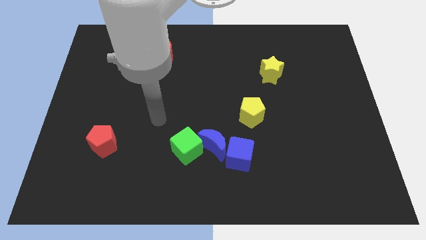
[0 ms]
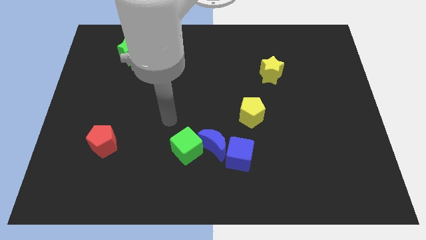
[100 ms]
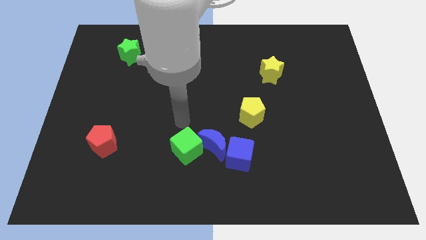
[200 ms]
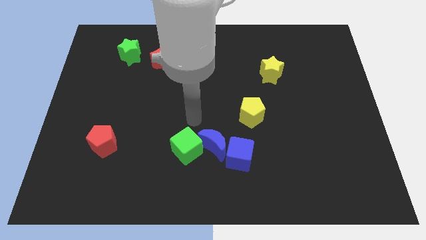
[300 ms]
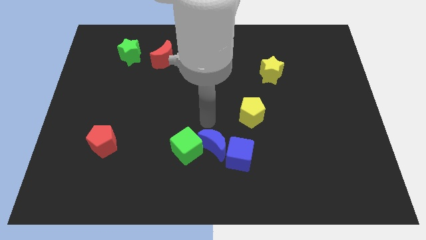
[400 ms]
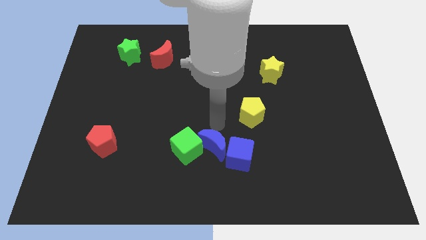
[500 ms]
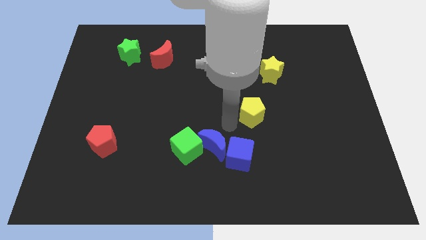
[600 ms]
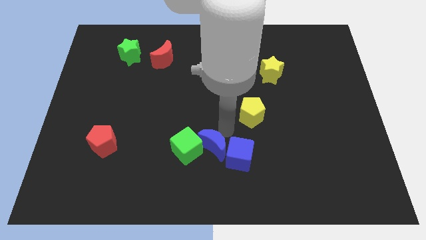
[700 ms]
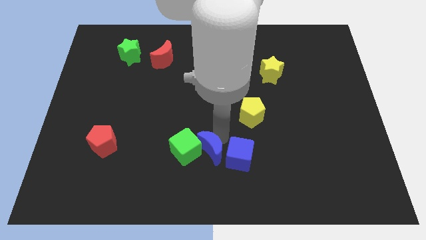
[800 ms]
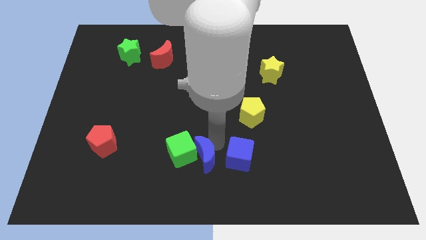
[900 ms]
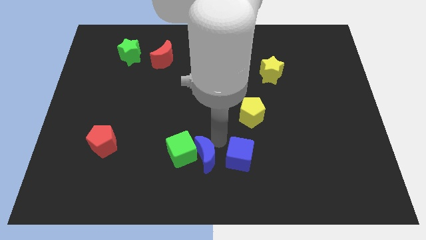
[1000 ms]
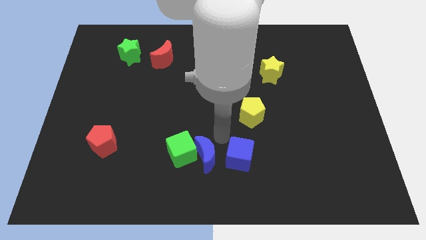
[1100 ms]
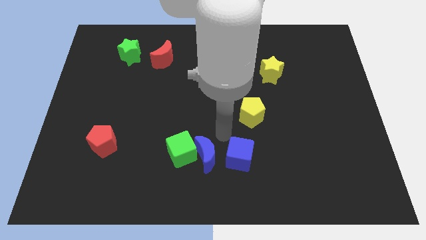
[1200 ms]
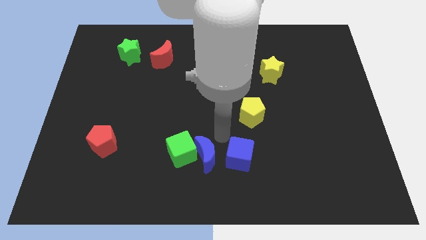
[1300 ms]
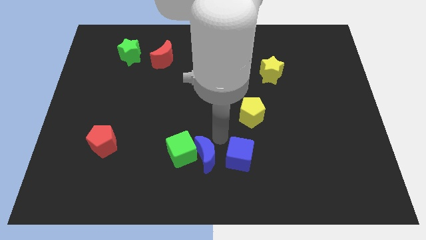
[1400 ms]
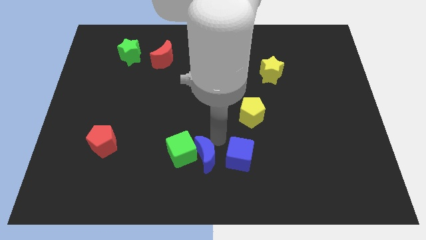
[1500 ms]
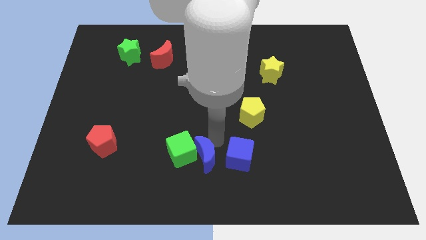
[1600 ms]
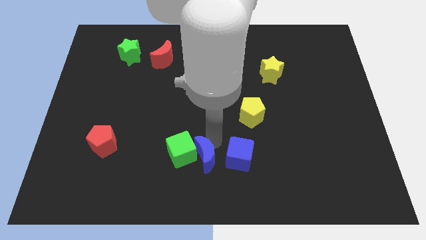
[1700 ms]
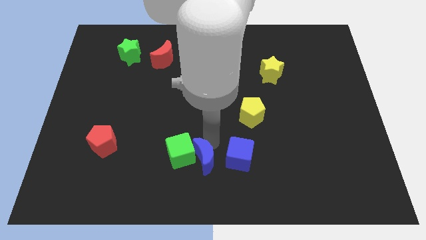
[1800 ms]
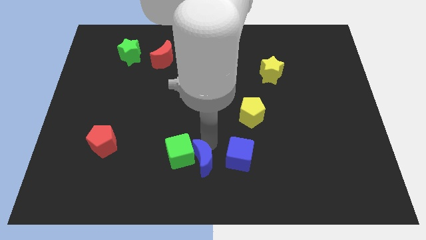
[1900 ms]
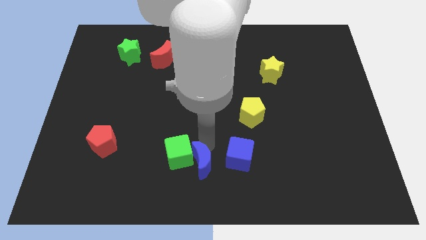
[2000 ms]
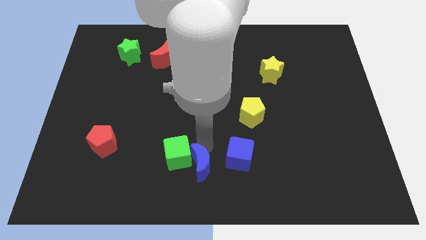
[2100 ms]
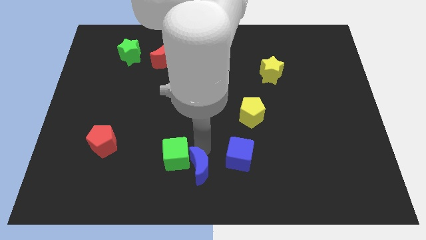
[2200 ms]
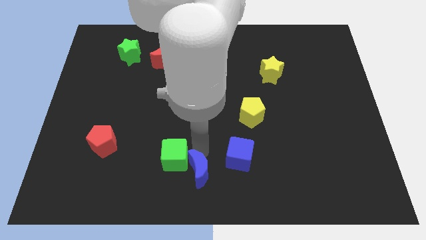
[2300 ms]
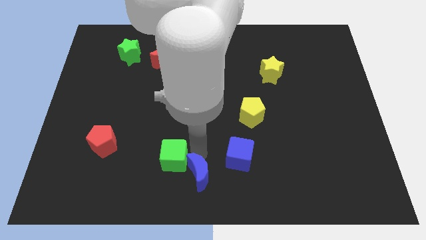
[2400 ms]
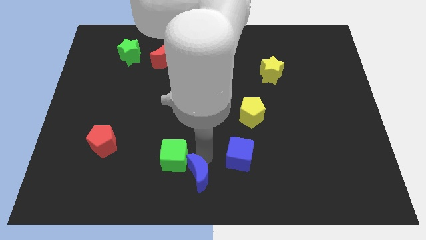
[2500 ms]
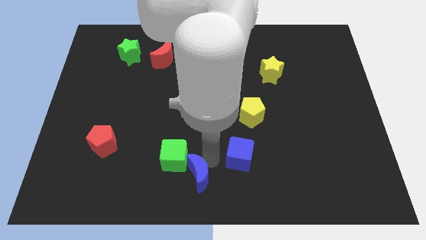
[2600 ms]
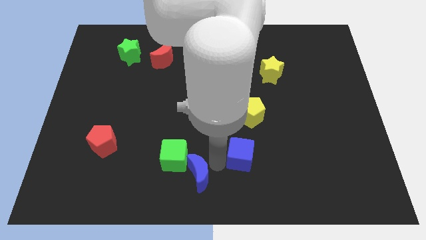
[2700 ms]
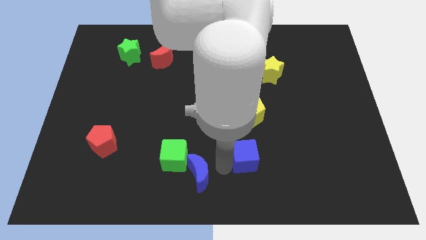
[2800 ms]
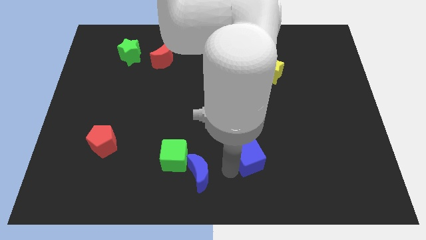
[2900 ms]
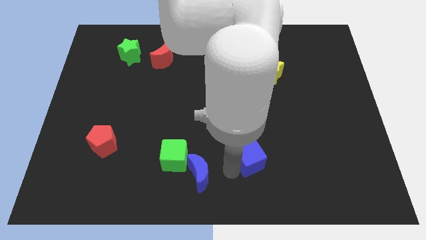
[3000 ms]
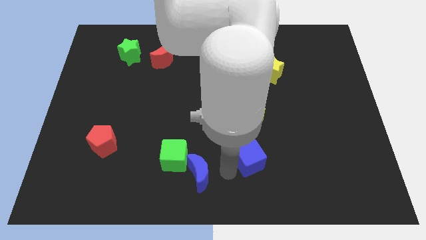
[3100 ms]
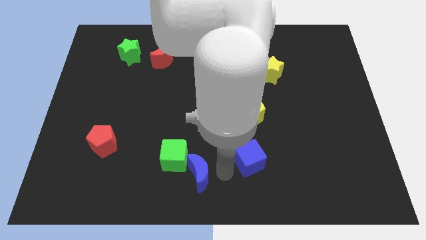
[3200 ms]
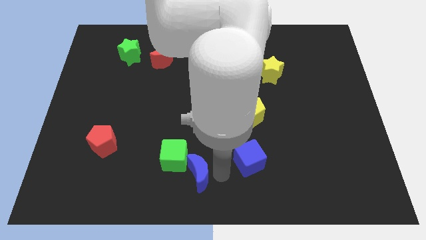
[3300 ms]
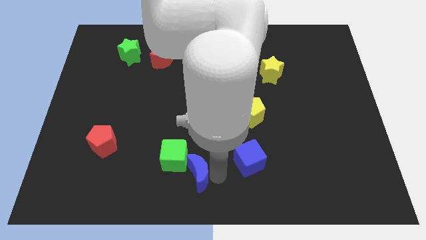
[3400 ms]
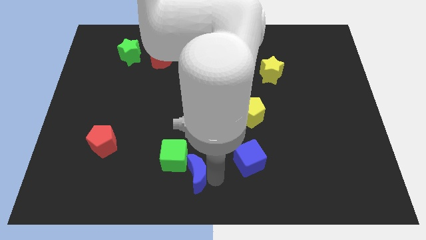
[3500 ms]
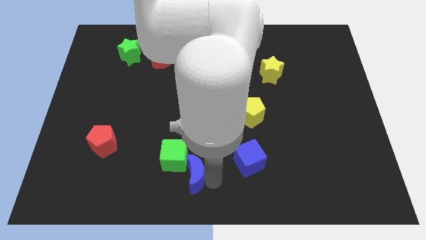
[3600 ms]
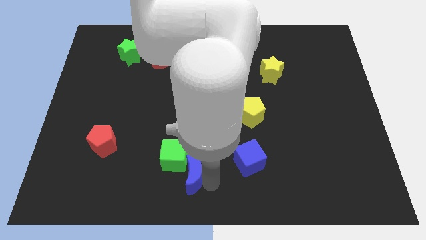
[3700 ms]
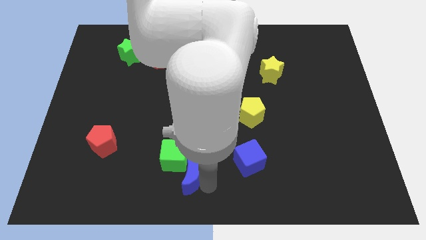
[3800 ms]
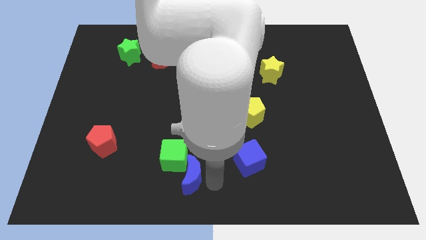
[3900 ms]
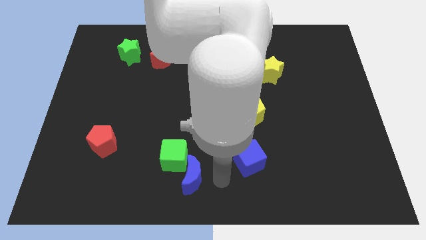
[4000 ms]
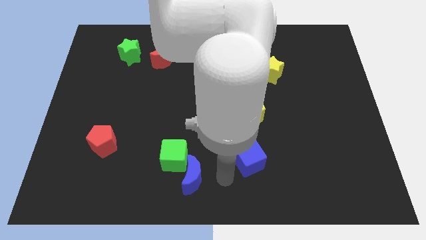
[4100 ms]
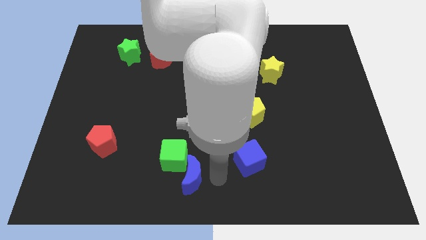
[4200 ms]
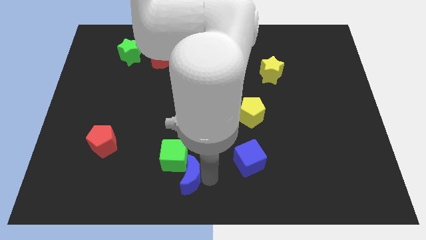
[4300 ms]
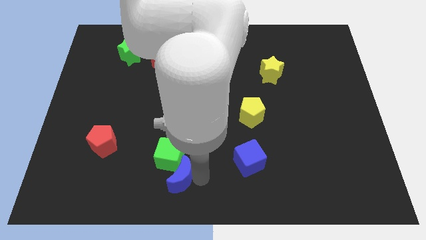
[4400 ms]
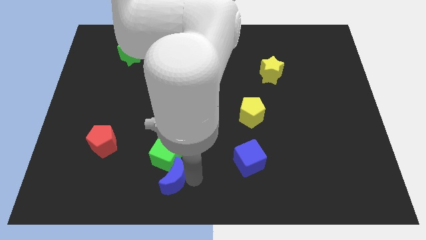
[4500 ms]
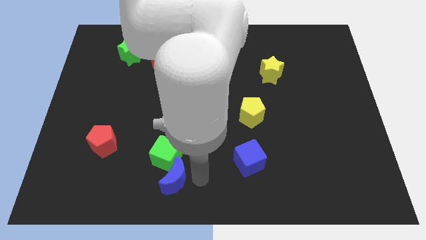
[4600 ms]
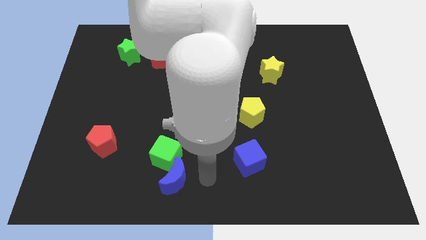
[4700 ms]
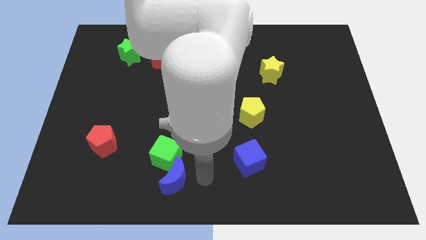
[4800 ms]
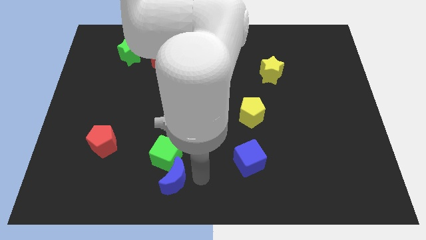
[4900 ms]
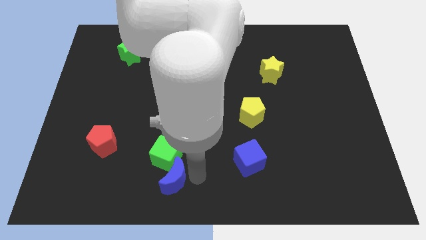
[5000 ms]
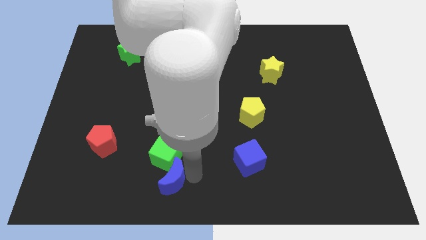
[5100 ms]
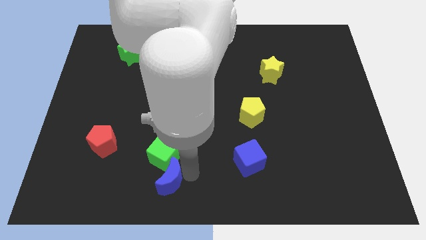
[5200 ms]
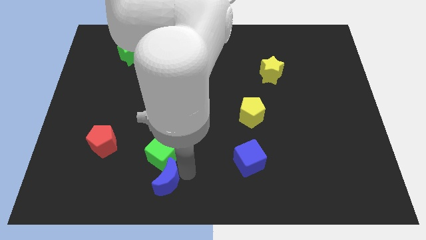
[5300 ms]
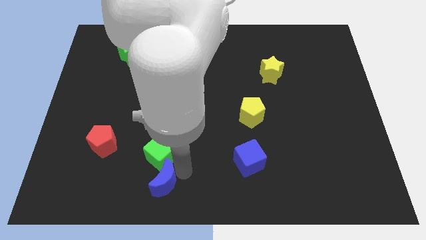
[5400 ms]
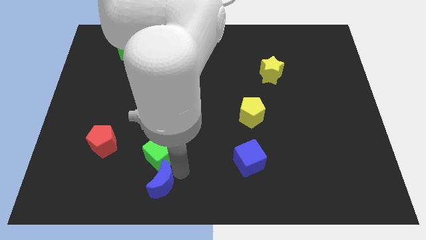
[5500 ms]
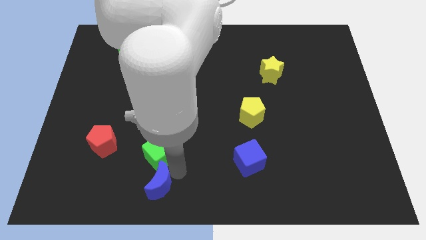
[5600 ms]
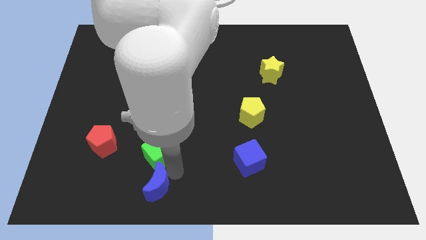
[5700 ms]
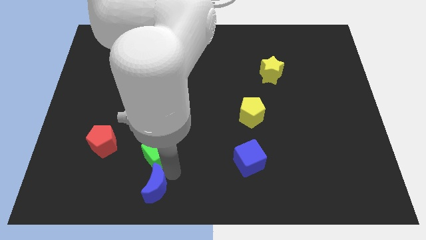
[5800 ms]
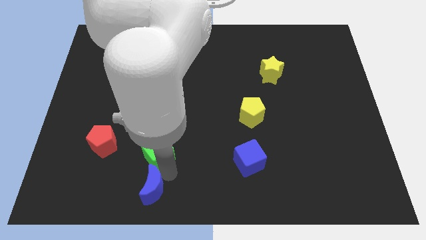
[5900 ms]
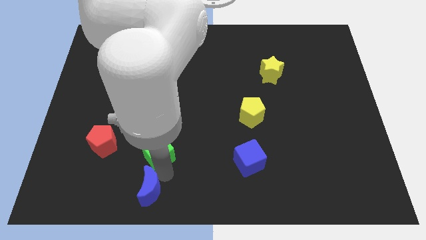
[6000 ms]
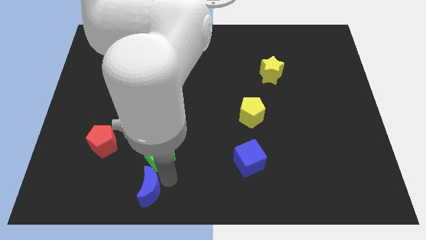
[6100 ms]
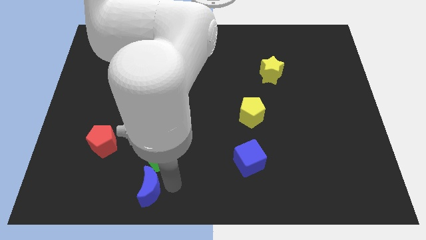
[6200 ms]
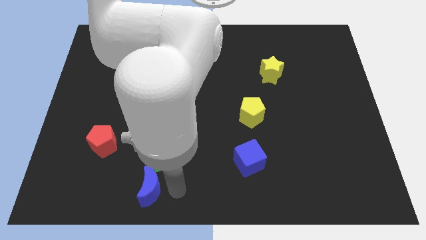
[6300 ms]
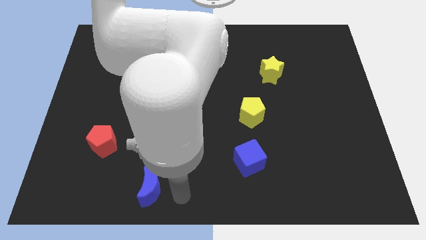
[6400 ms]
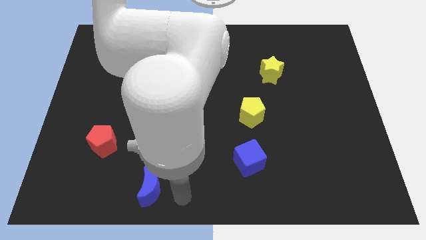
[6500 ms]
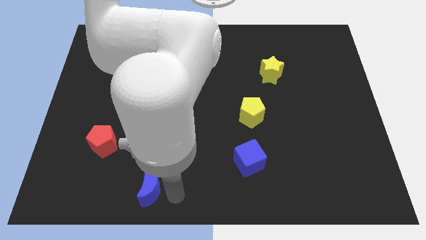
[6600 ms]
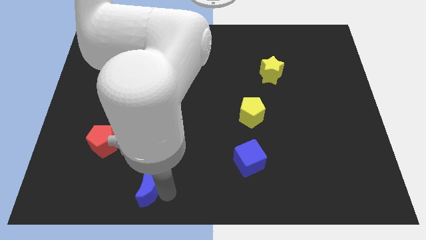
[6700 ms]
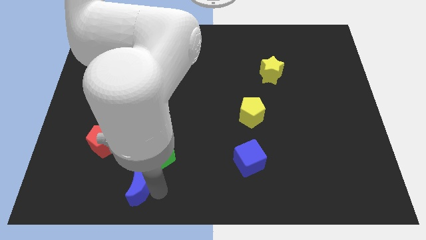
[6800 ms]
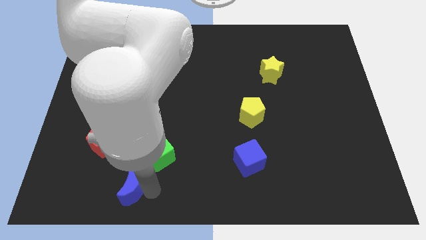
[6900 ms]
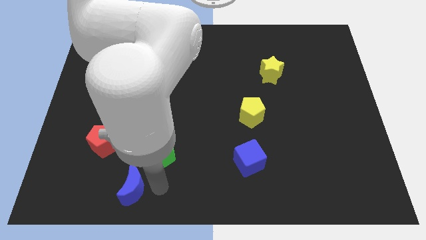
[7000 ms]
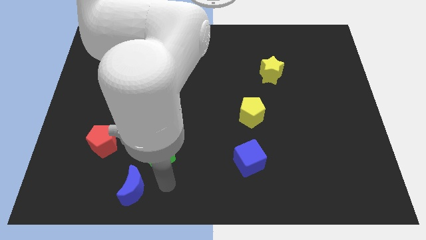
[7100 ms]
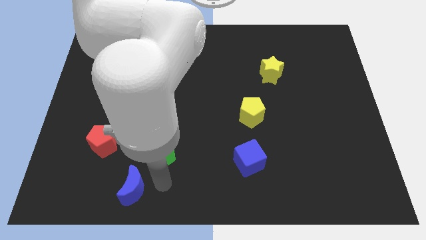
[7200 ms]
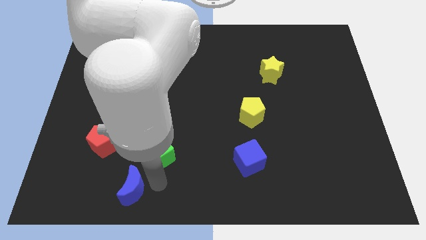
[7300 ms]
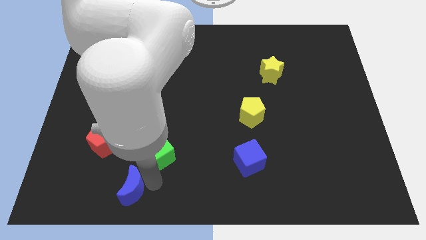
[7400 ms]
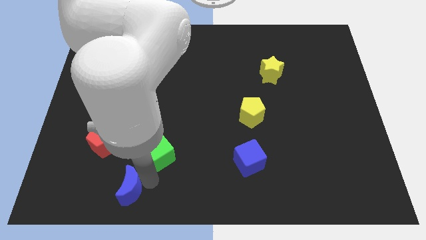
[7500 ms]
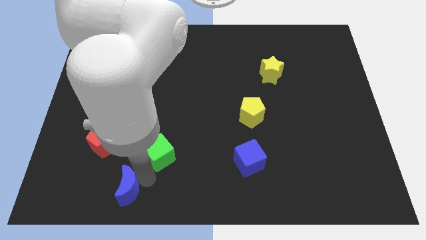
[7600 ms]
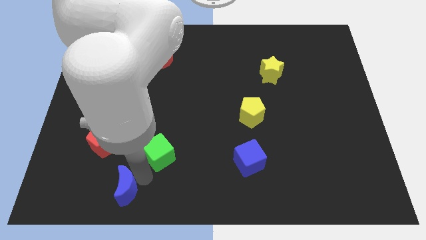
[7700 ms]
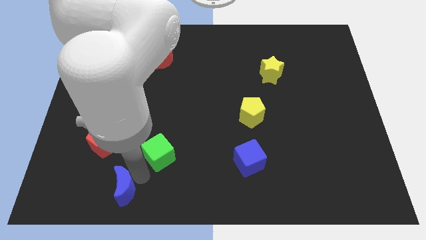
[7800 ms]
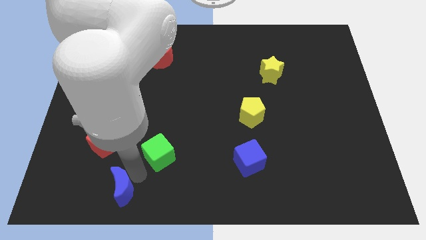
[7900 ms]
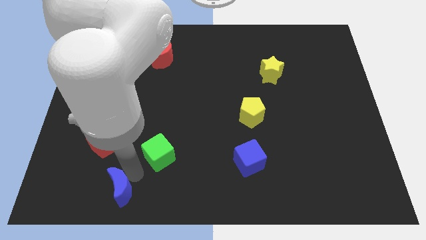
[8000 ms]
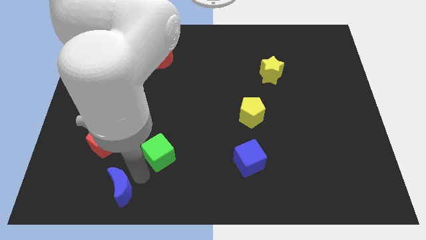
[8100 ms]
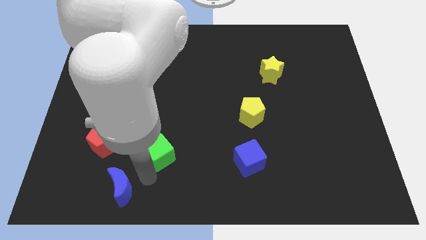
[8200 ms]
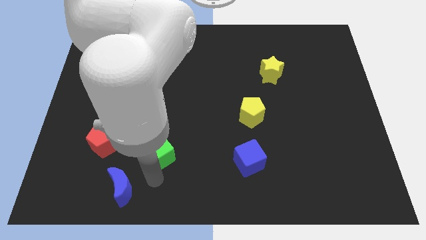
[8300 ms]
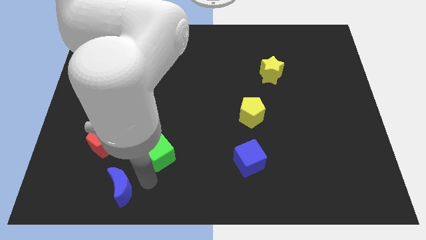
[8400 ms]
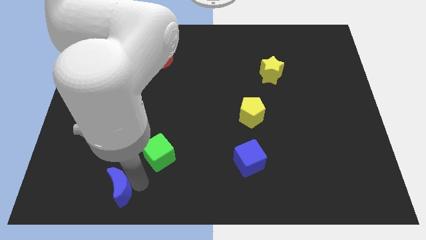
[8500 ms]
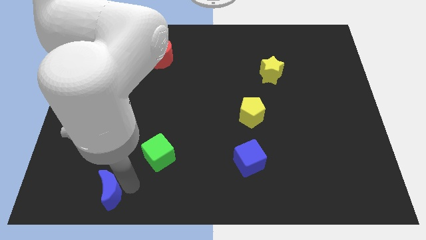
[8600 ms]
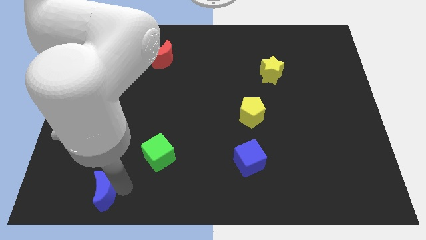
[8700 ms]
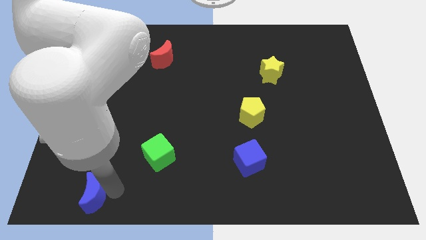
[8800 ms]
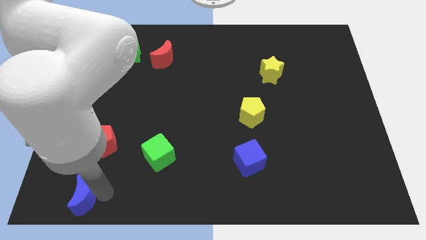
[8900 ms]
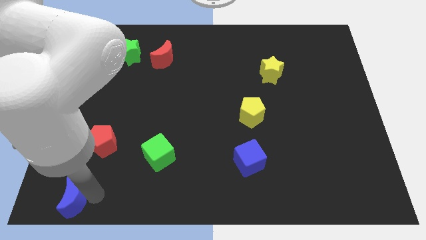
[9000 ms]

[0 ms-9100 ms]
push the blue moon to the bottom left
